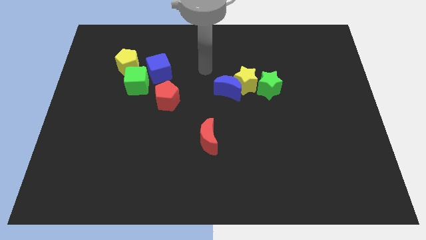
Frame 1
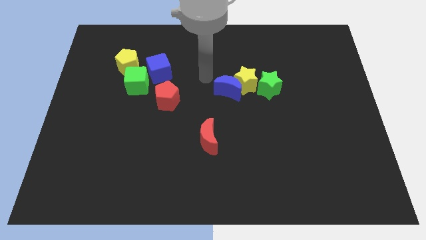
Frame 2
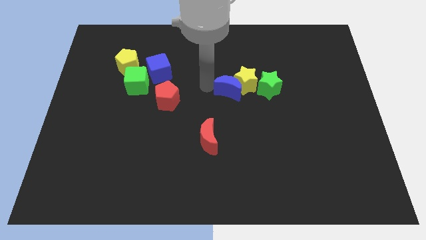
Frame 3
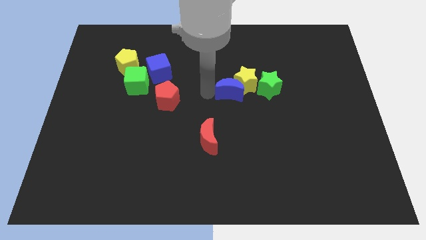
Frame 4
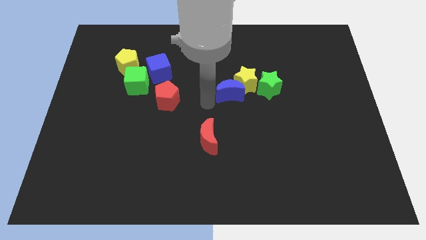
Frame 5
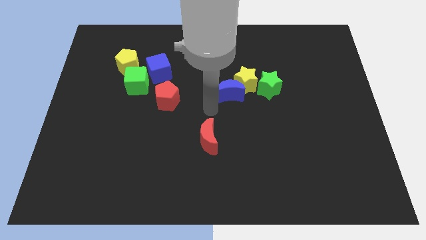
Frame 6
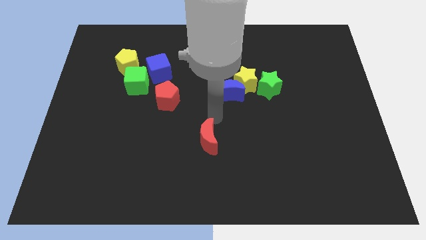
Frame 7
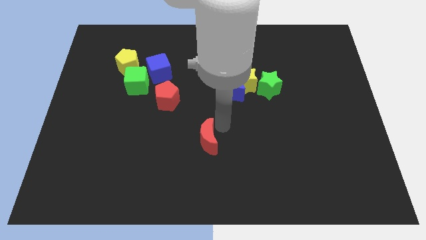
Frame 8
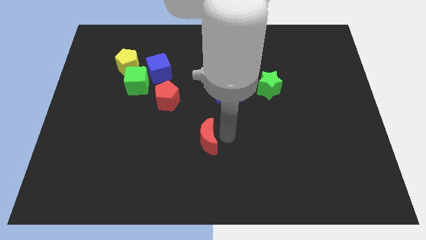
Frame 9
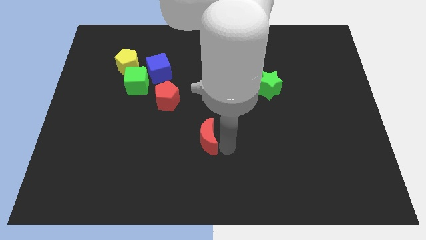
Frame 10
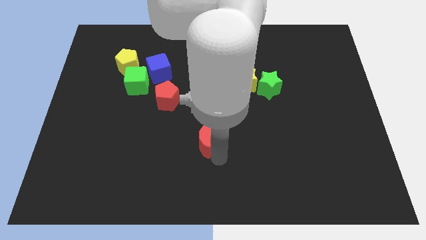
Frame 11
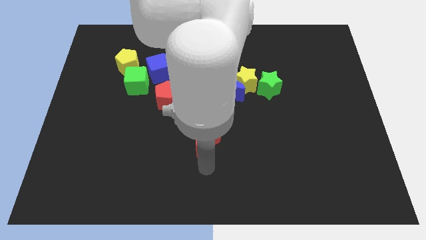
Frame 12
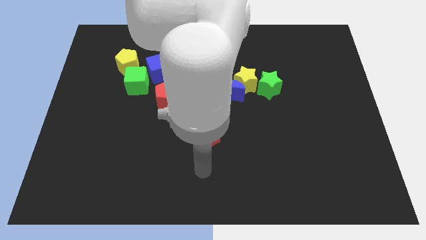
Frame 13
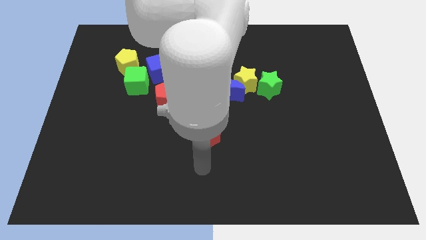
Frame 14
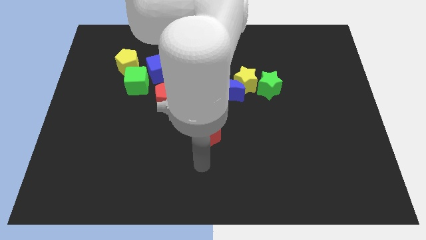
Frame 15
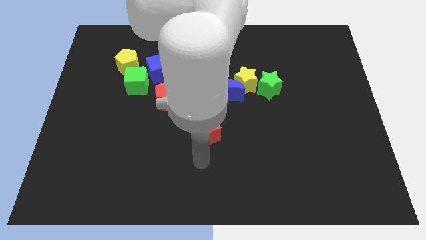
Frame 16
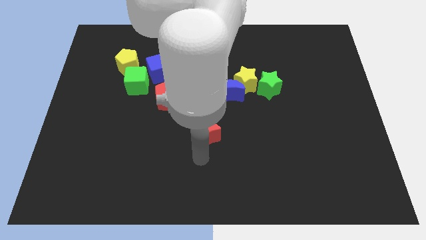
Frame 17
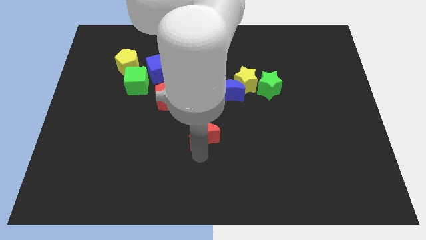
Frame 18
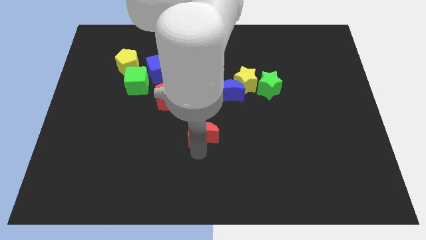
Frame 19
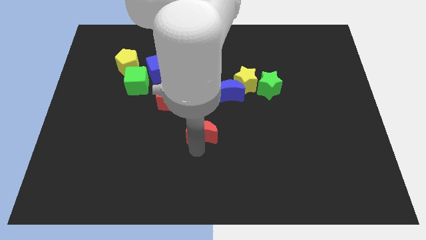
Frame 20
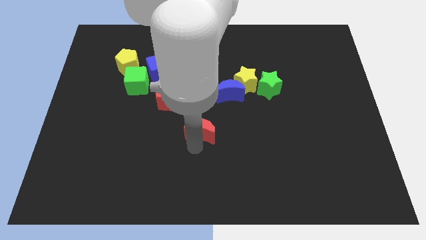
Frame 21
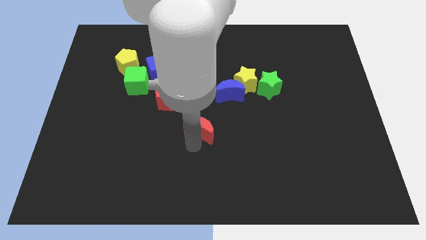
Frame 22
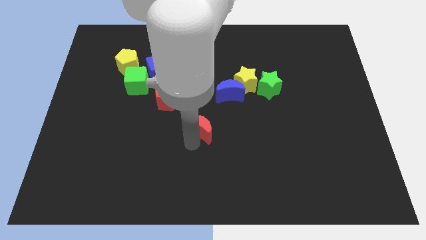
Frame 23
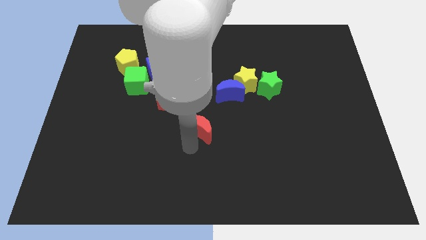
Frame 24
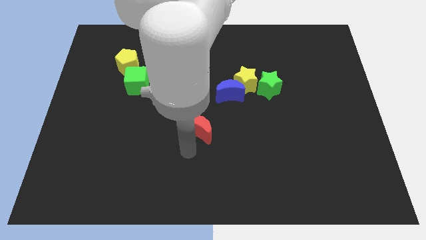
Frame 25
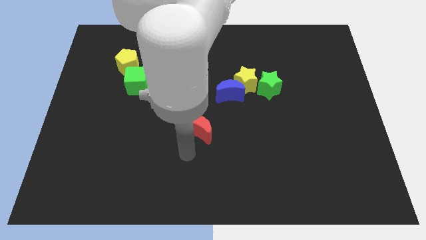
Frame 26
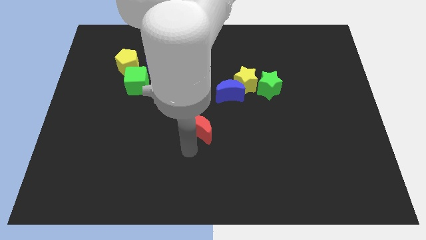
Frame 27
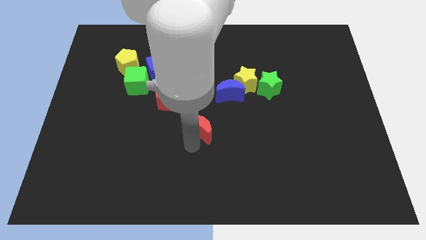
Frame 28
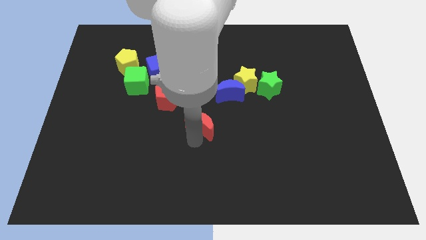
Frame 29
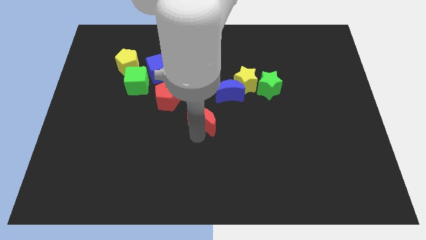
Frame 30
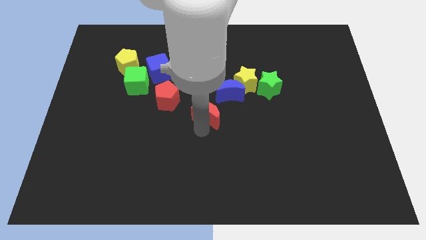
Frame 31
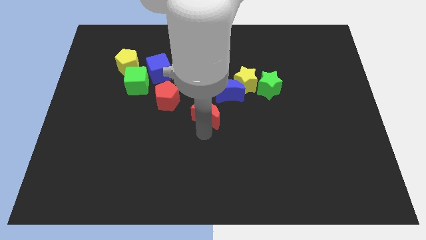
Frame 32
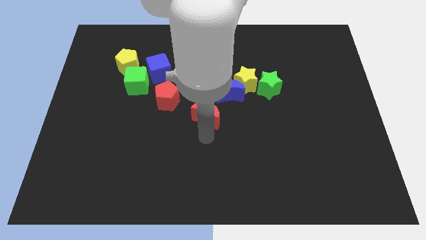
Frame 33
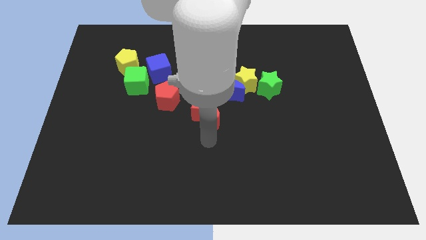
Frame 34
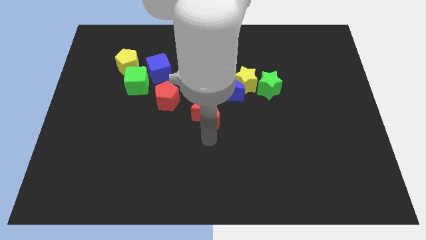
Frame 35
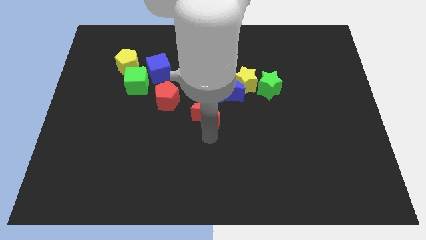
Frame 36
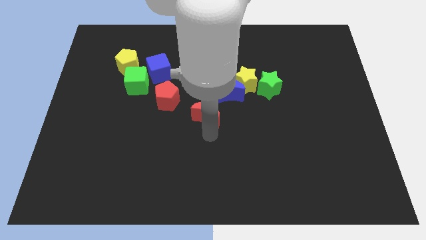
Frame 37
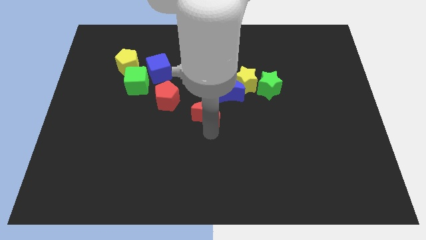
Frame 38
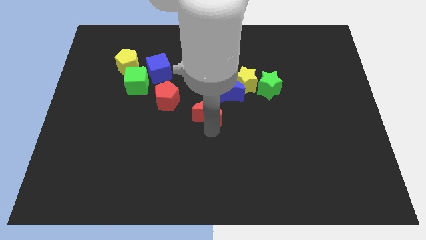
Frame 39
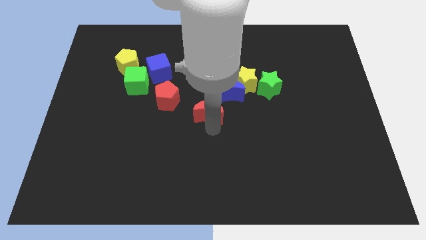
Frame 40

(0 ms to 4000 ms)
slightly push the red moon up

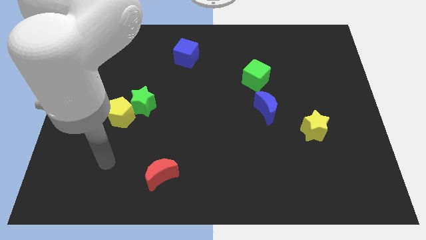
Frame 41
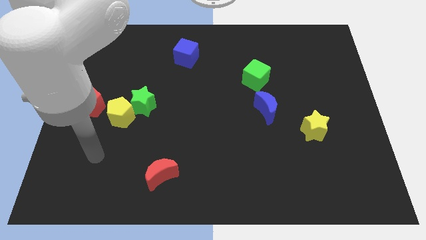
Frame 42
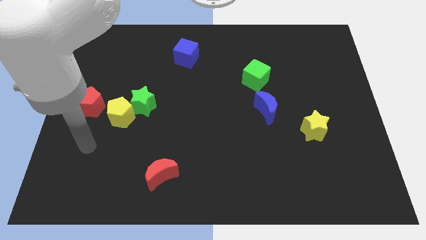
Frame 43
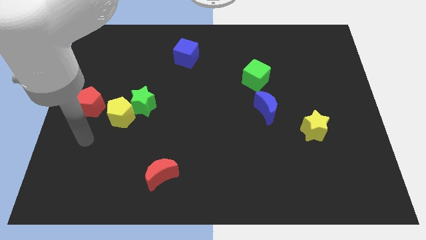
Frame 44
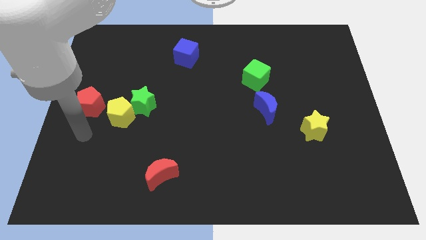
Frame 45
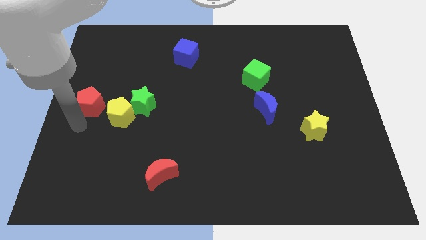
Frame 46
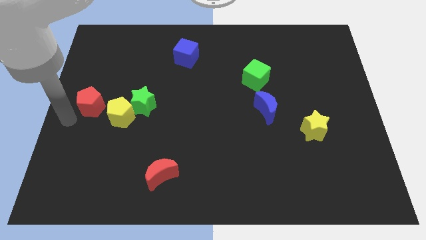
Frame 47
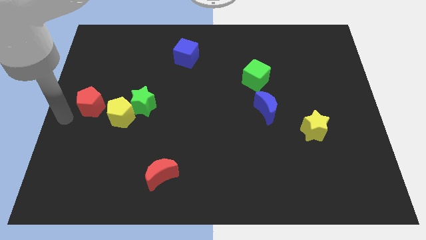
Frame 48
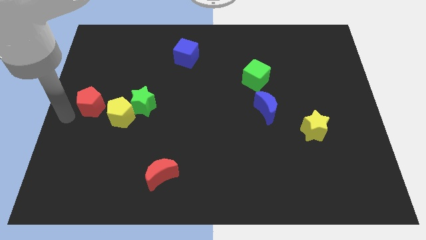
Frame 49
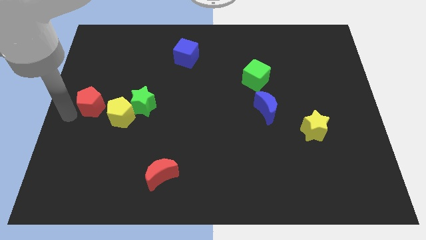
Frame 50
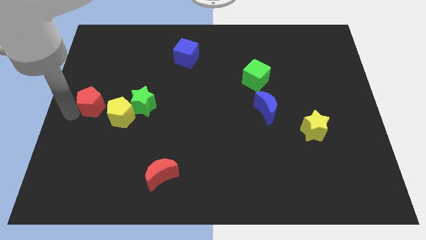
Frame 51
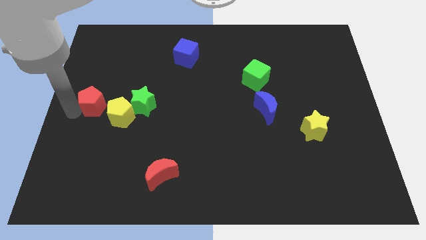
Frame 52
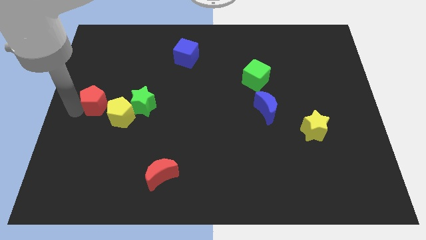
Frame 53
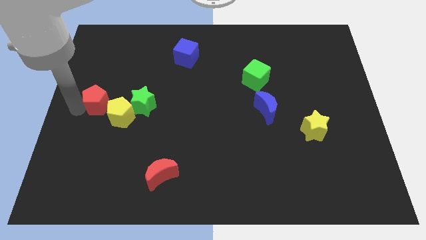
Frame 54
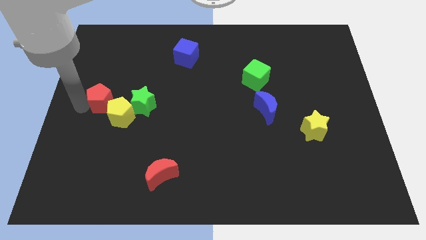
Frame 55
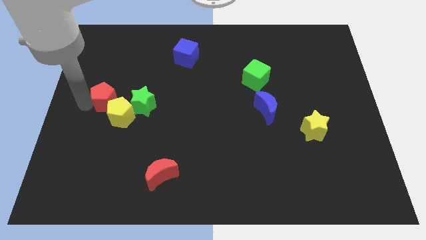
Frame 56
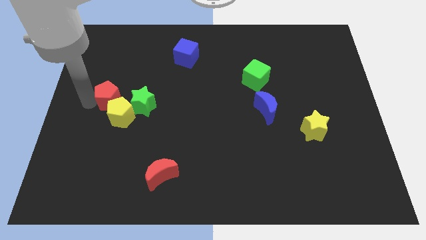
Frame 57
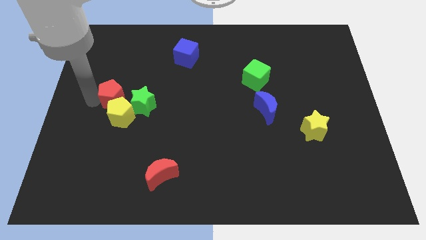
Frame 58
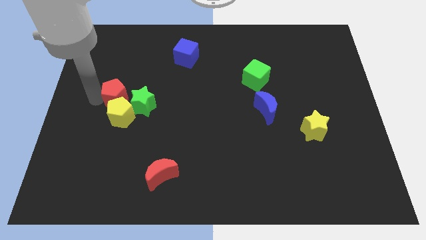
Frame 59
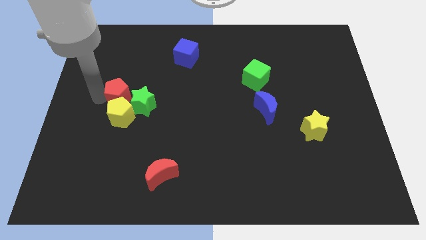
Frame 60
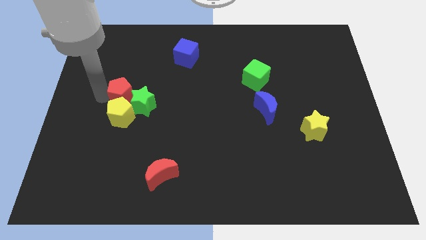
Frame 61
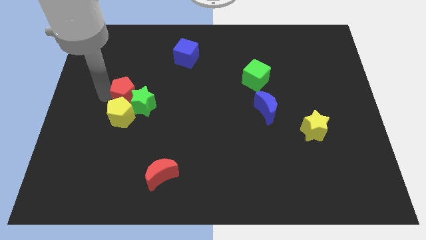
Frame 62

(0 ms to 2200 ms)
slightly slide the red pentagon right

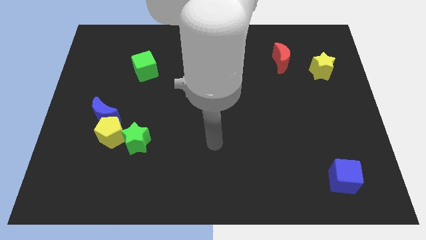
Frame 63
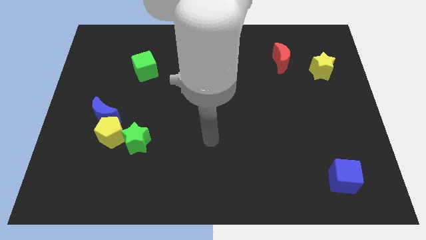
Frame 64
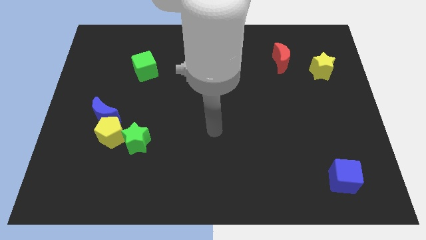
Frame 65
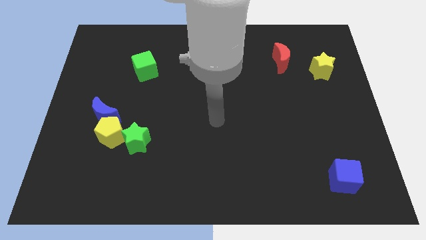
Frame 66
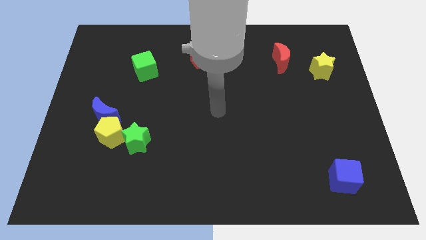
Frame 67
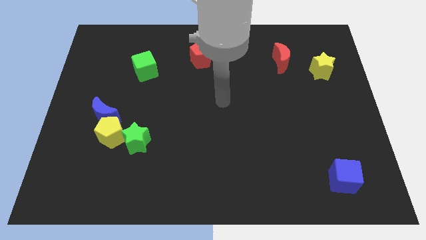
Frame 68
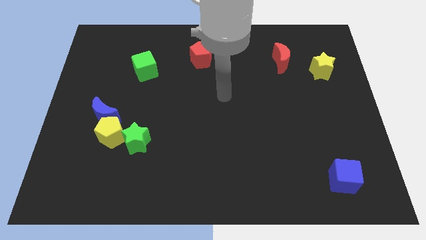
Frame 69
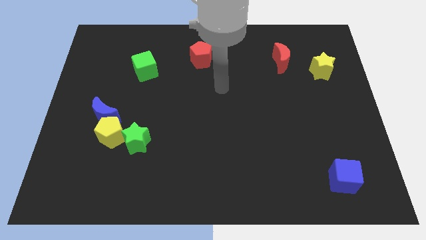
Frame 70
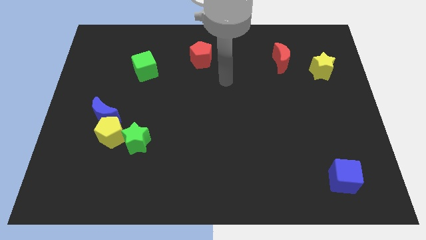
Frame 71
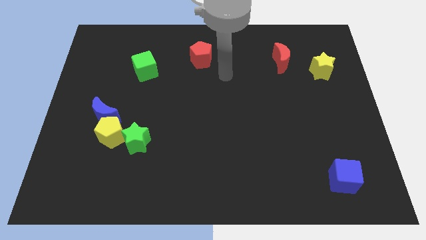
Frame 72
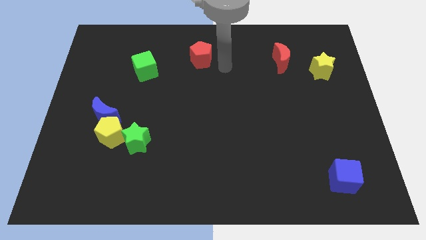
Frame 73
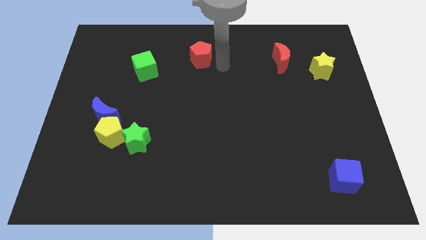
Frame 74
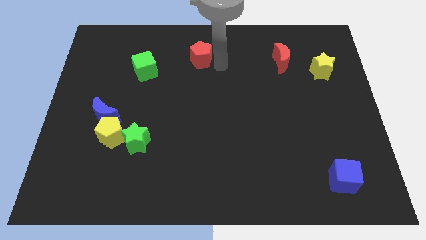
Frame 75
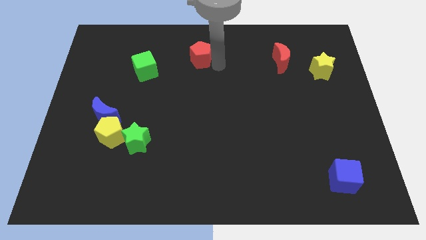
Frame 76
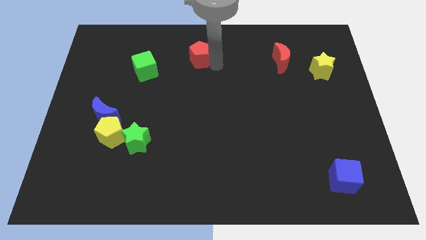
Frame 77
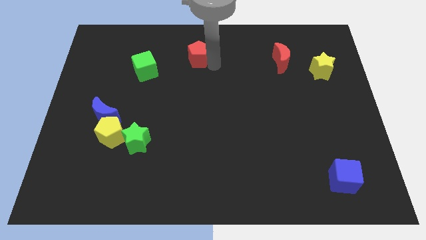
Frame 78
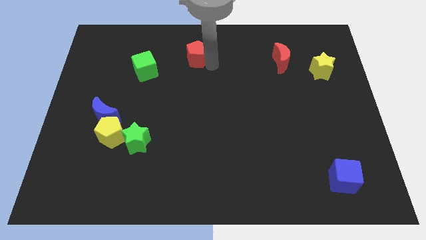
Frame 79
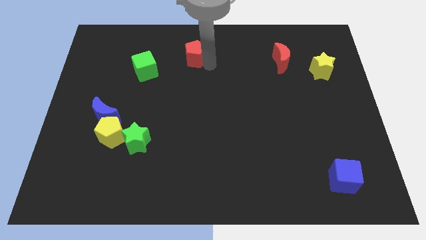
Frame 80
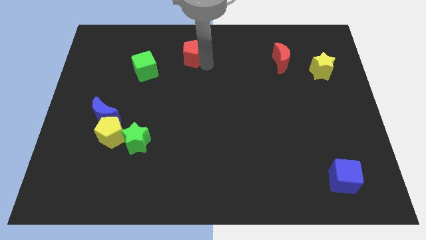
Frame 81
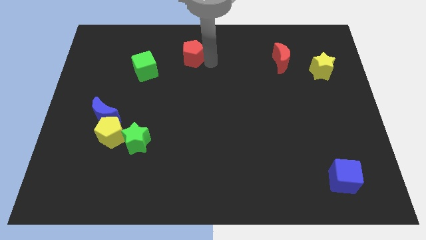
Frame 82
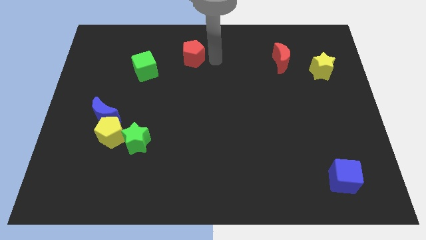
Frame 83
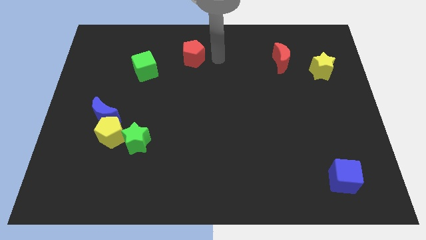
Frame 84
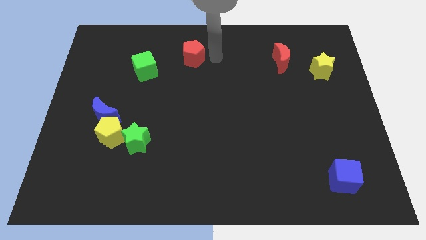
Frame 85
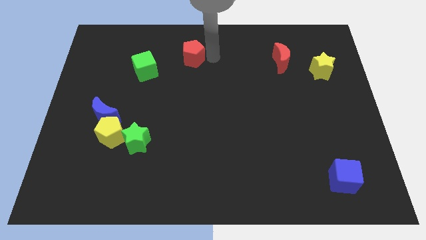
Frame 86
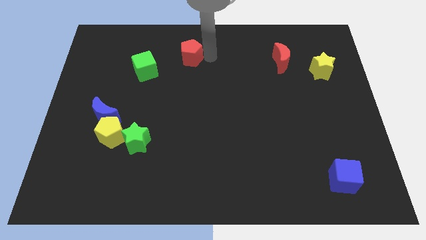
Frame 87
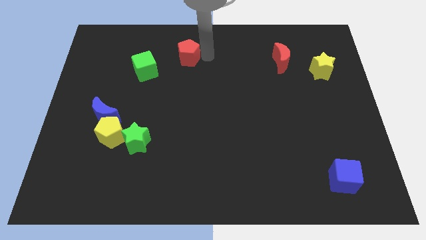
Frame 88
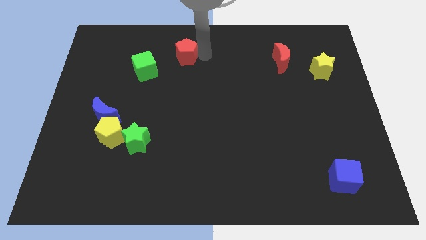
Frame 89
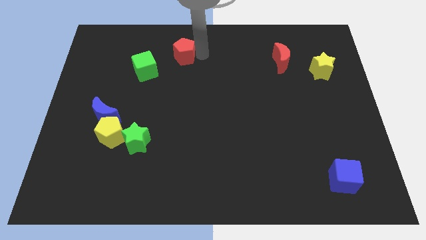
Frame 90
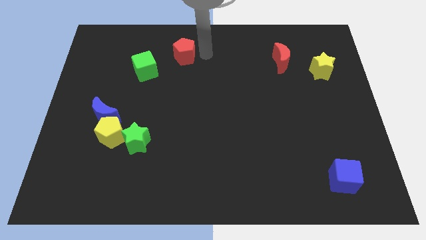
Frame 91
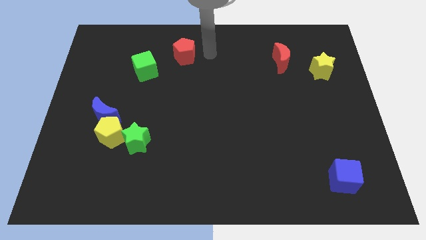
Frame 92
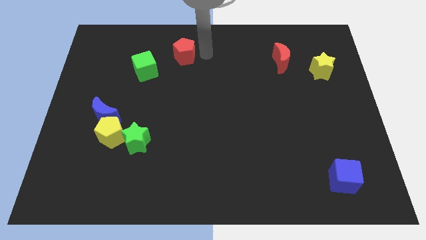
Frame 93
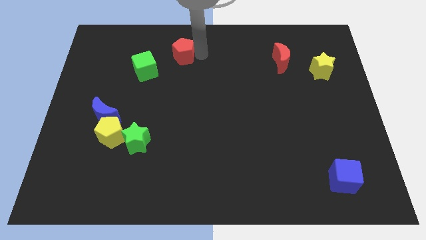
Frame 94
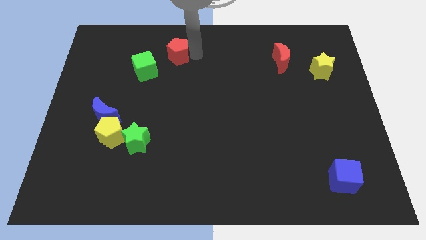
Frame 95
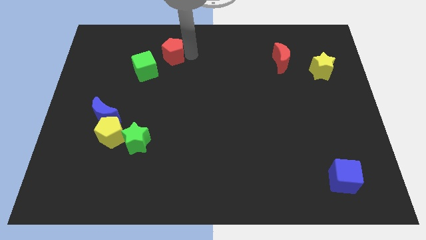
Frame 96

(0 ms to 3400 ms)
move the red pentagon to the left somewhat
